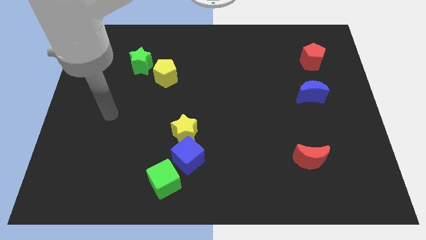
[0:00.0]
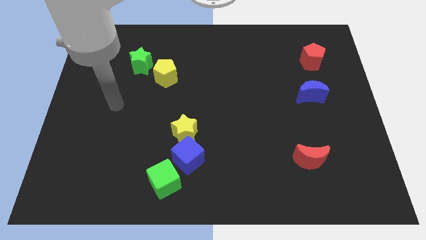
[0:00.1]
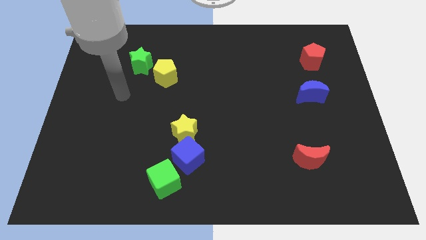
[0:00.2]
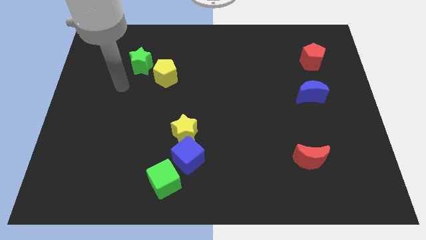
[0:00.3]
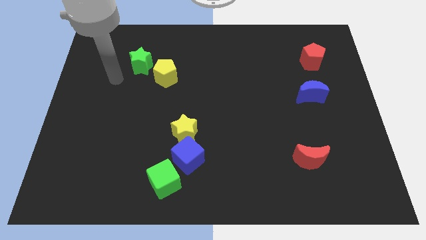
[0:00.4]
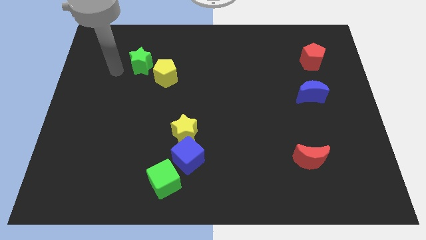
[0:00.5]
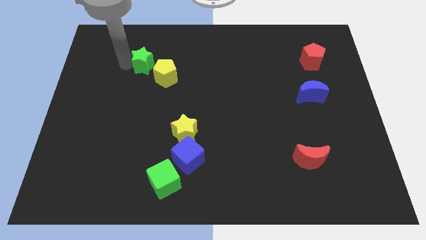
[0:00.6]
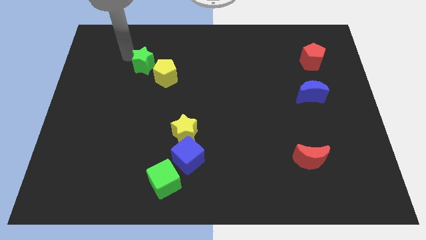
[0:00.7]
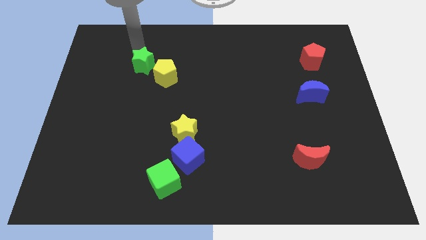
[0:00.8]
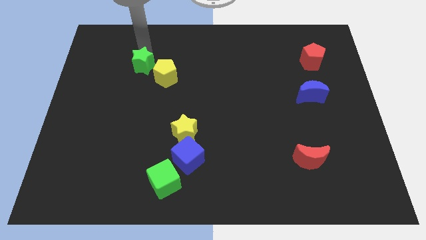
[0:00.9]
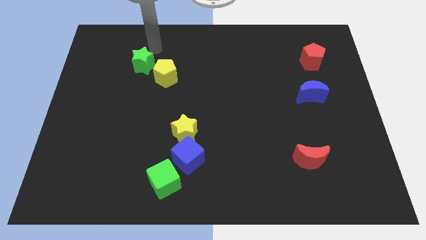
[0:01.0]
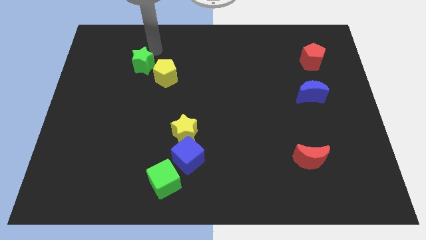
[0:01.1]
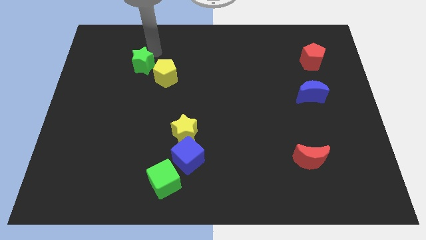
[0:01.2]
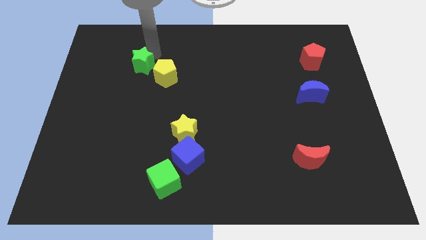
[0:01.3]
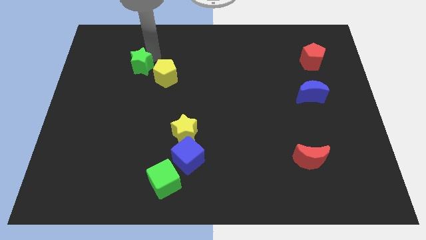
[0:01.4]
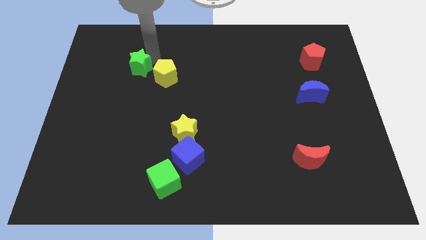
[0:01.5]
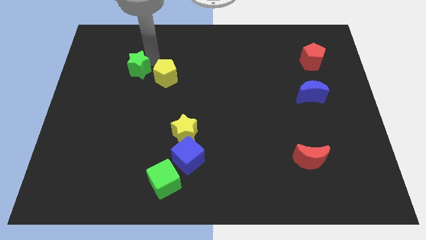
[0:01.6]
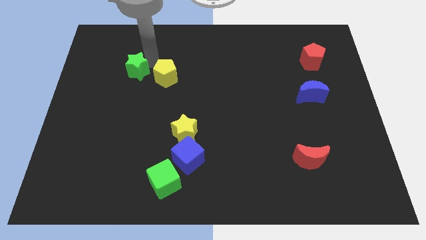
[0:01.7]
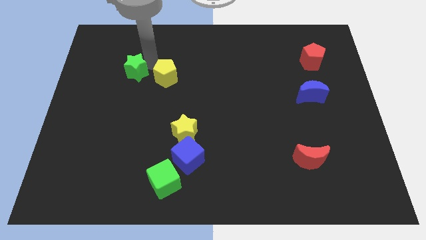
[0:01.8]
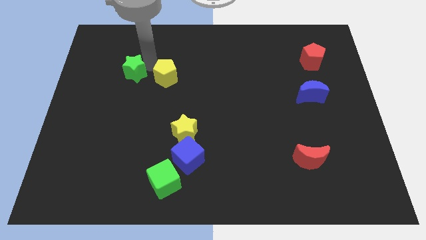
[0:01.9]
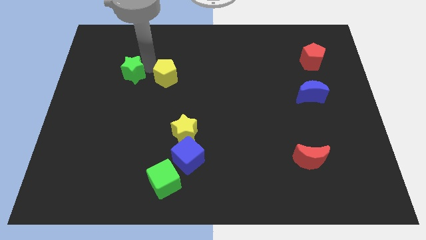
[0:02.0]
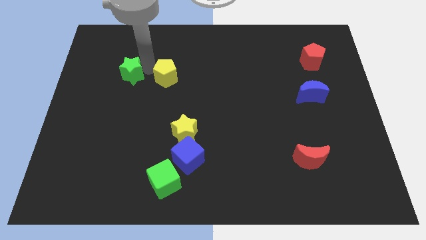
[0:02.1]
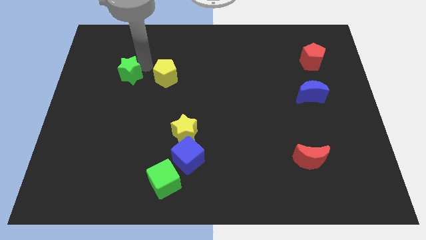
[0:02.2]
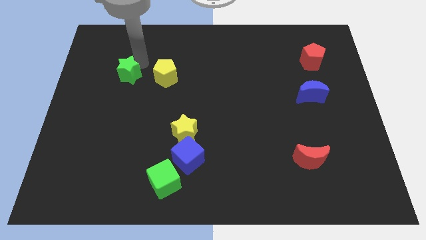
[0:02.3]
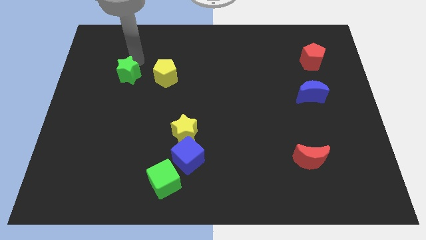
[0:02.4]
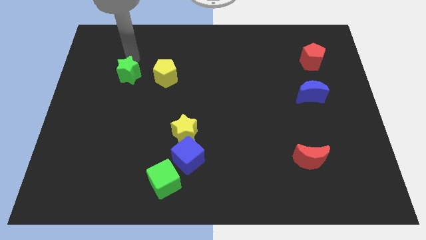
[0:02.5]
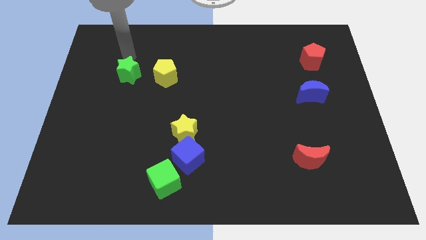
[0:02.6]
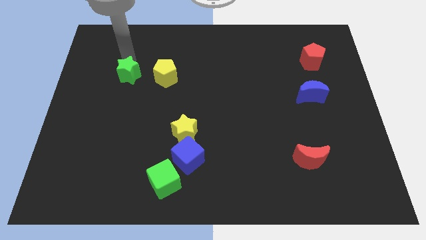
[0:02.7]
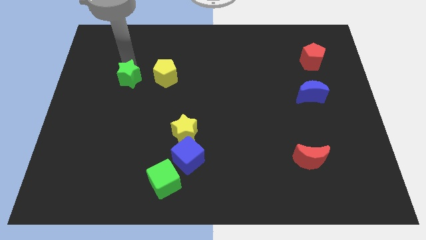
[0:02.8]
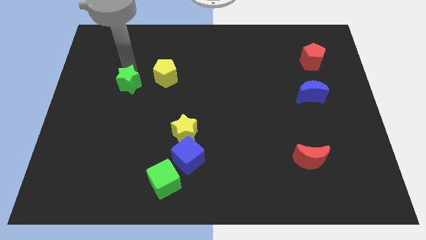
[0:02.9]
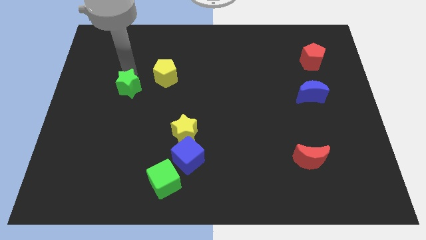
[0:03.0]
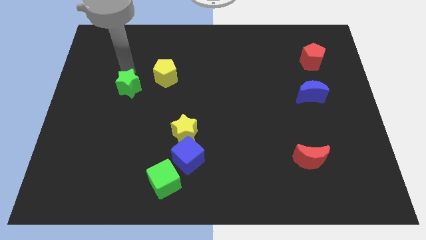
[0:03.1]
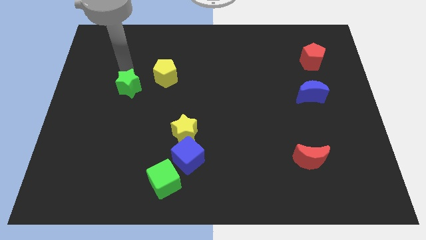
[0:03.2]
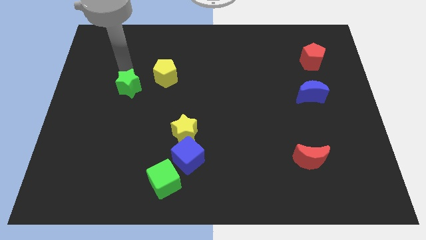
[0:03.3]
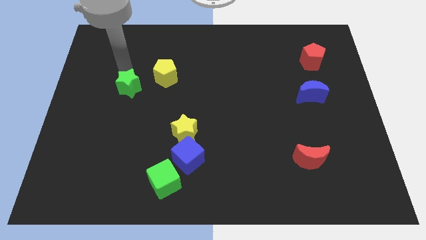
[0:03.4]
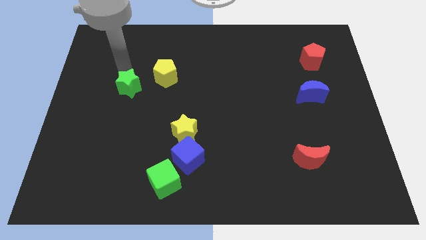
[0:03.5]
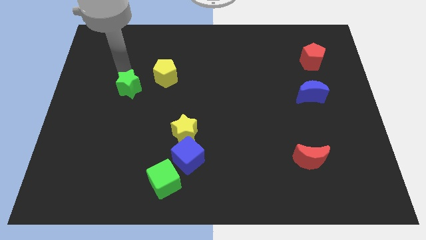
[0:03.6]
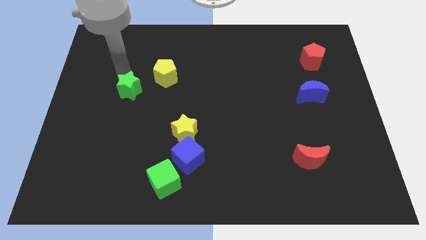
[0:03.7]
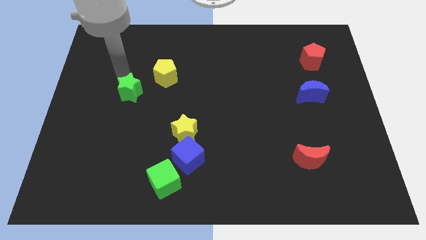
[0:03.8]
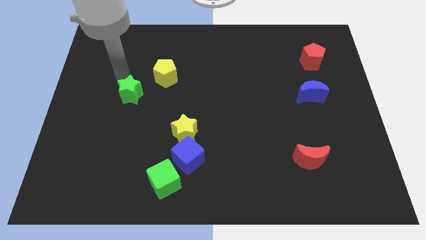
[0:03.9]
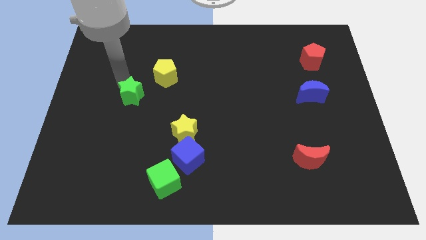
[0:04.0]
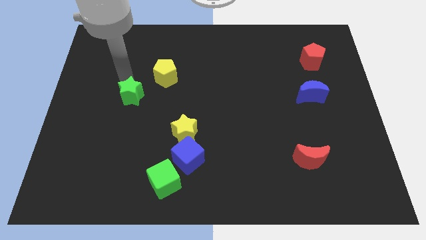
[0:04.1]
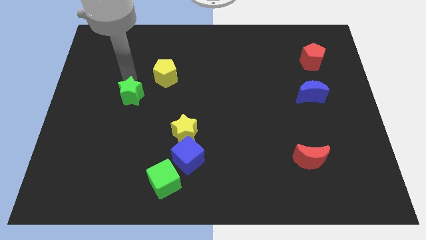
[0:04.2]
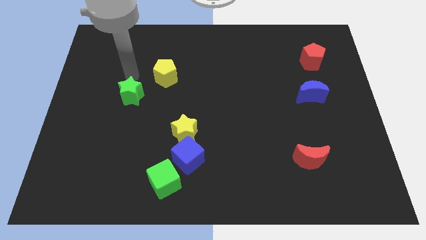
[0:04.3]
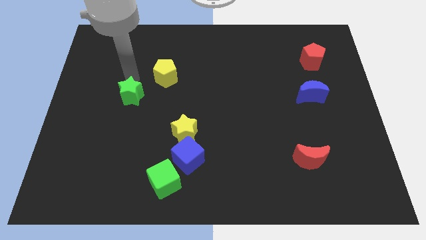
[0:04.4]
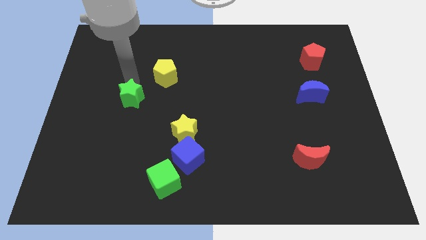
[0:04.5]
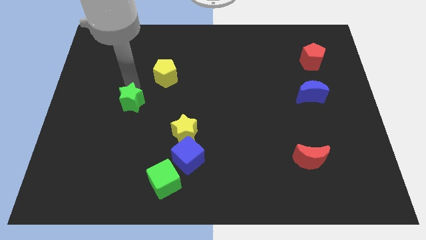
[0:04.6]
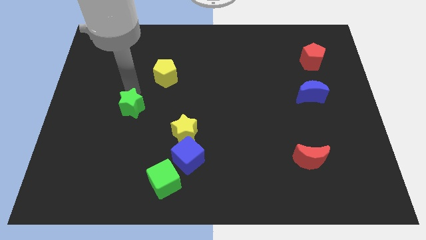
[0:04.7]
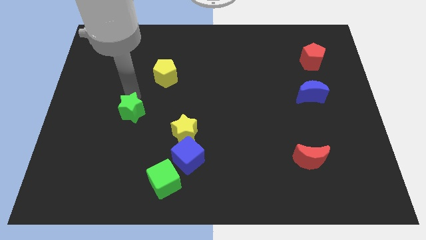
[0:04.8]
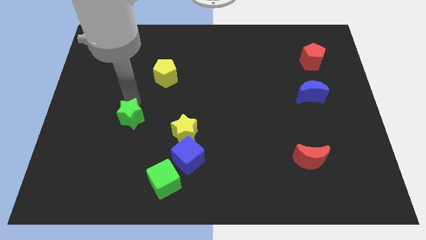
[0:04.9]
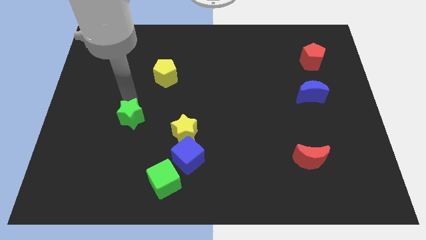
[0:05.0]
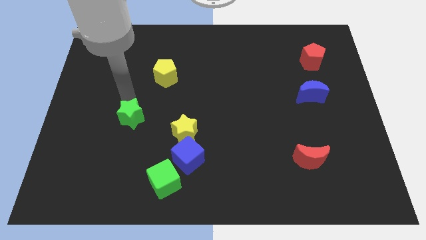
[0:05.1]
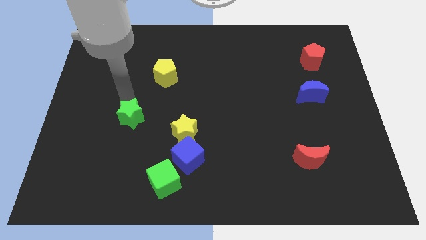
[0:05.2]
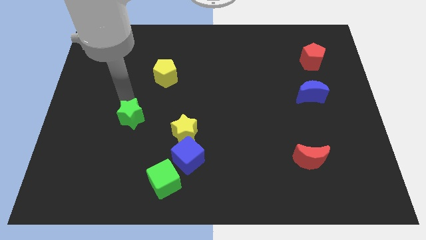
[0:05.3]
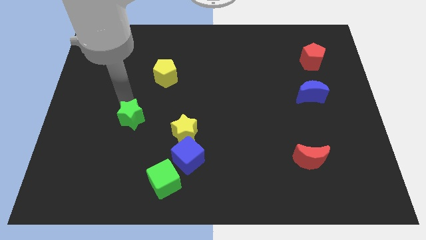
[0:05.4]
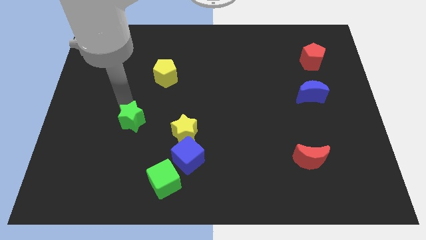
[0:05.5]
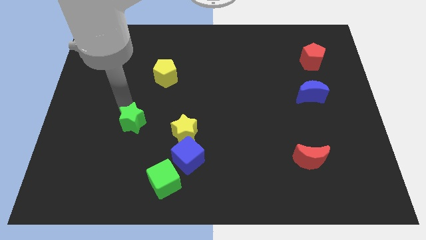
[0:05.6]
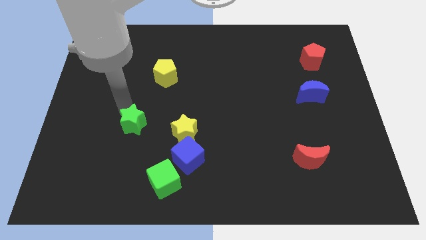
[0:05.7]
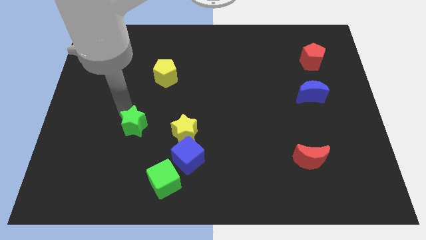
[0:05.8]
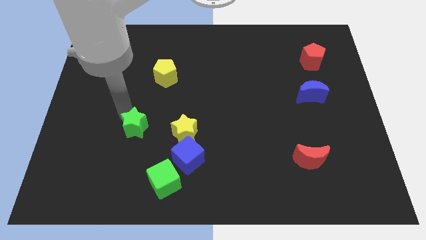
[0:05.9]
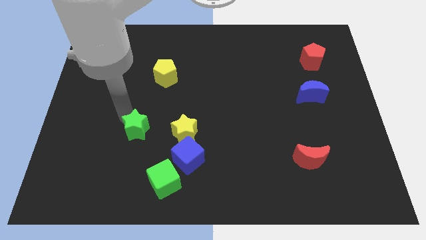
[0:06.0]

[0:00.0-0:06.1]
push the green star down

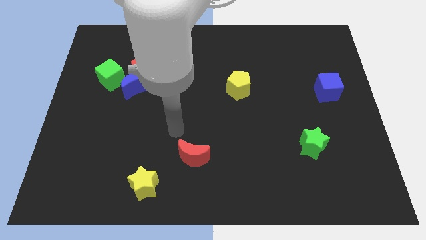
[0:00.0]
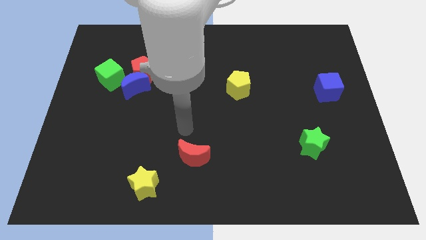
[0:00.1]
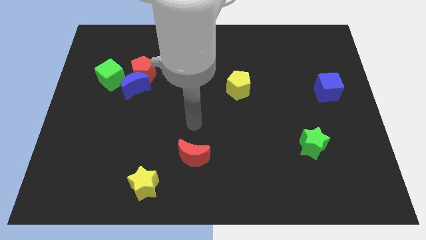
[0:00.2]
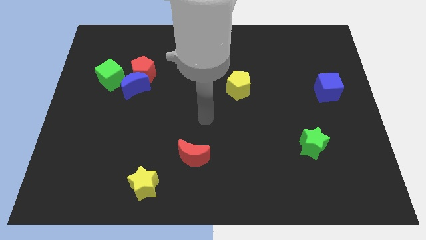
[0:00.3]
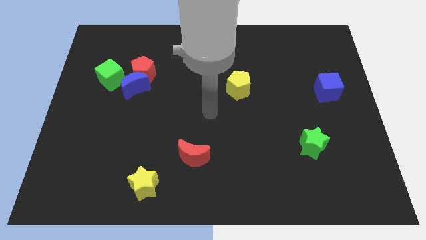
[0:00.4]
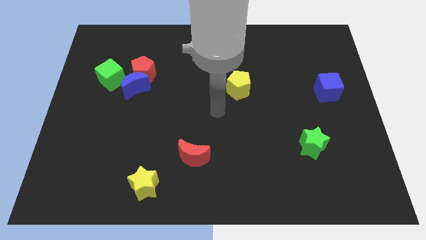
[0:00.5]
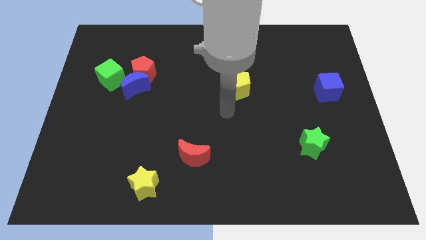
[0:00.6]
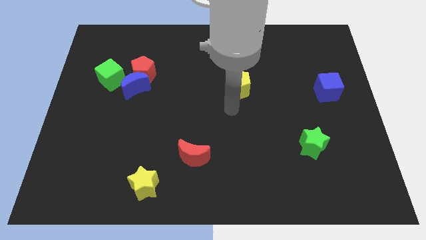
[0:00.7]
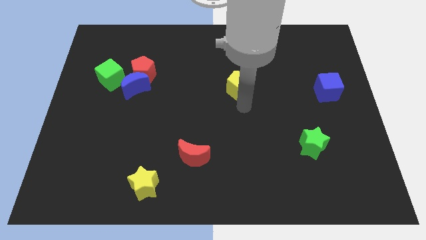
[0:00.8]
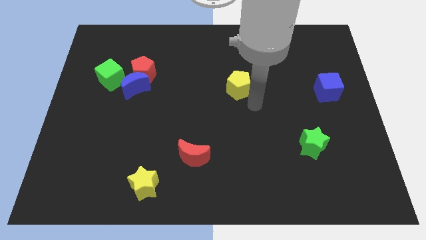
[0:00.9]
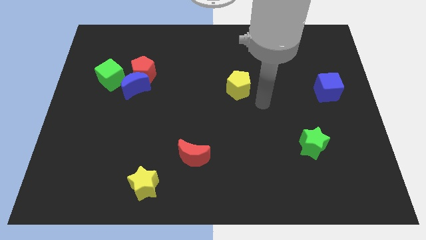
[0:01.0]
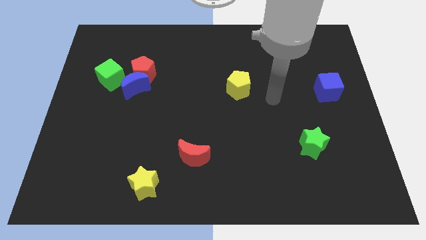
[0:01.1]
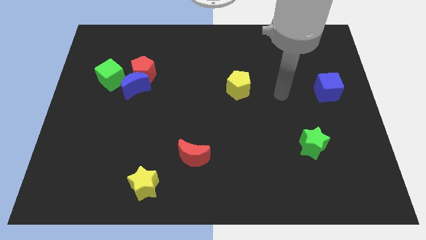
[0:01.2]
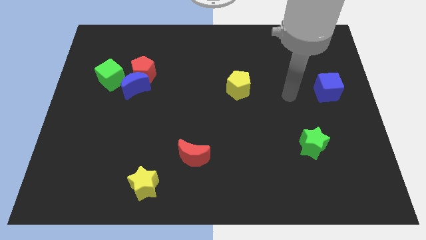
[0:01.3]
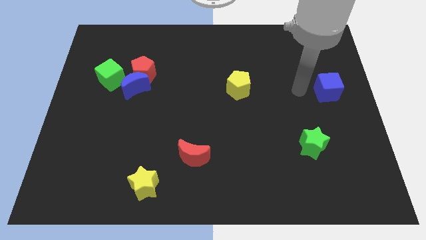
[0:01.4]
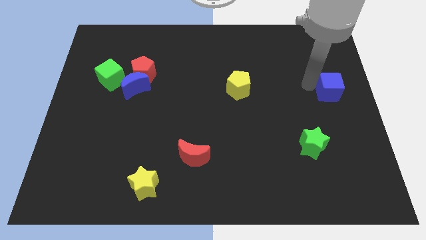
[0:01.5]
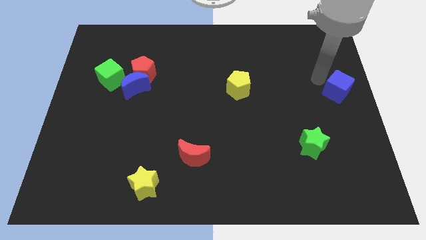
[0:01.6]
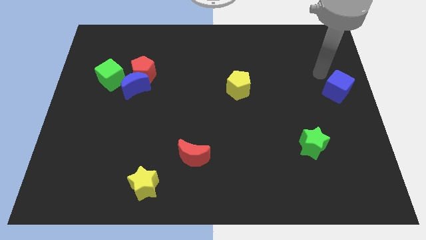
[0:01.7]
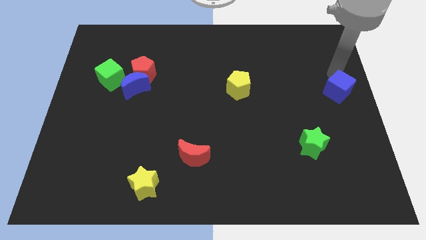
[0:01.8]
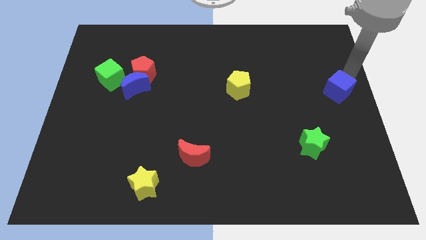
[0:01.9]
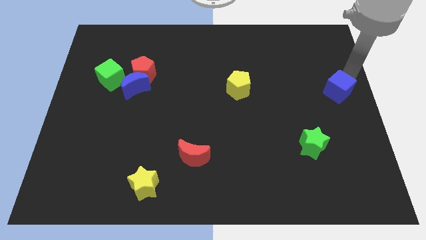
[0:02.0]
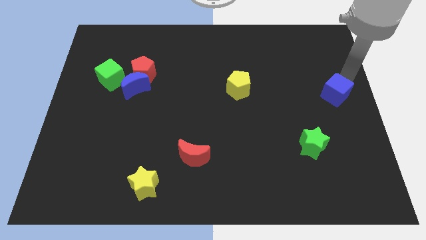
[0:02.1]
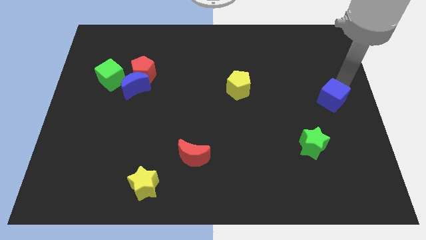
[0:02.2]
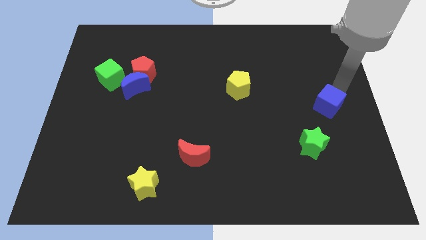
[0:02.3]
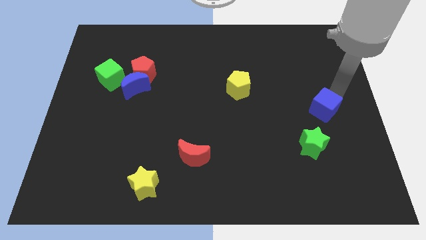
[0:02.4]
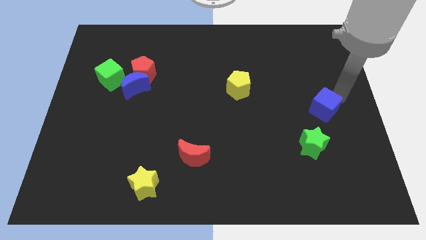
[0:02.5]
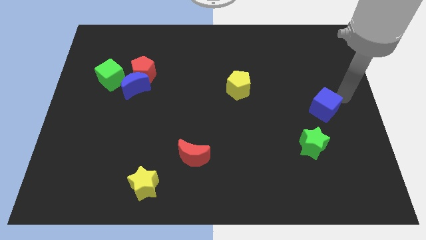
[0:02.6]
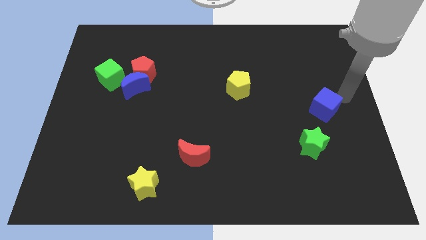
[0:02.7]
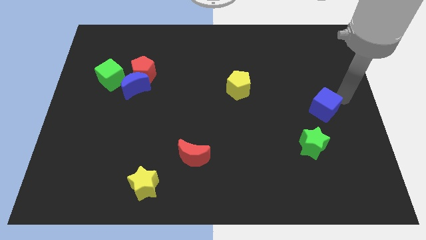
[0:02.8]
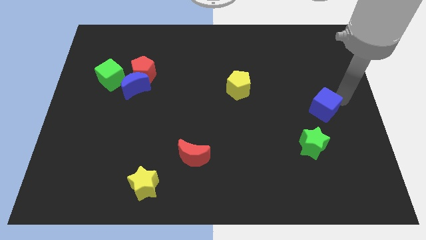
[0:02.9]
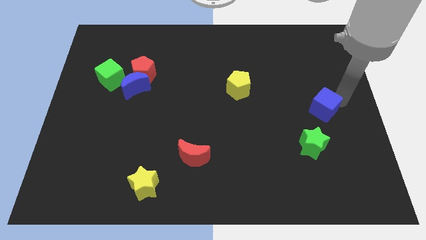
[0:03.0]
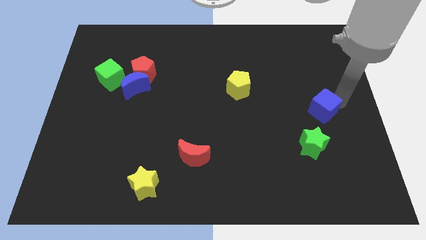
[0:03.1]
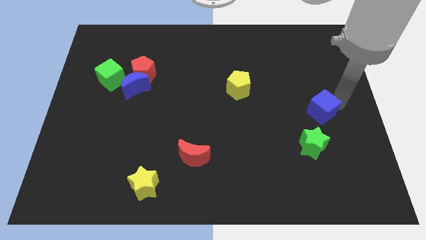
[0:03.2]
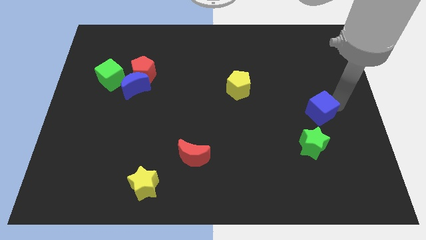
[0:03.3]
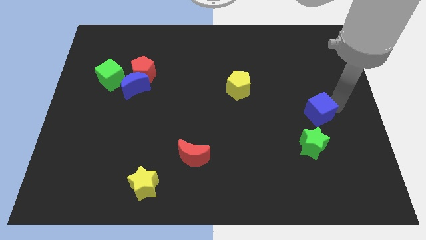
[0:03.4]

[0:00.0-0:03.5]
slightly push the blue cube downwards and left
